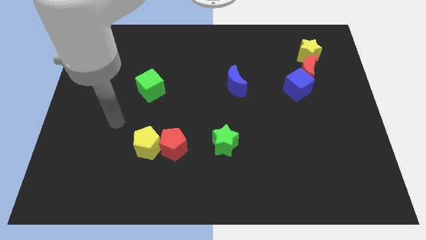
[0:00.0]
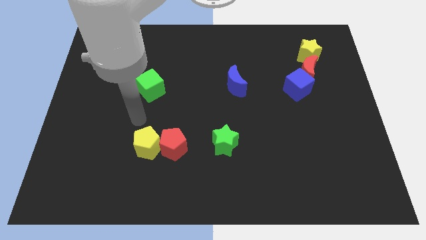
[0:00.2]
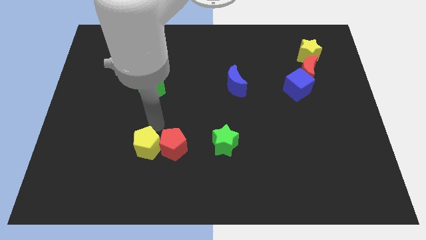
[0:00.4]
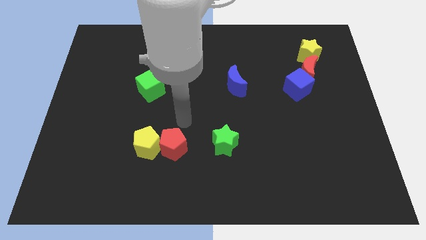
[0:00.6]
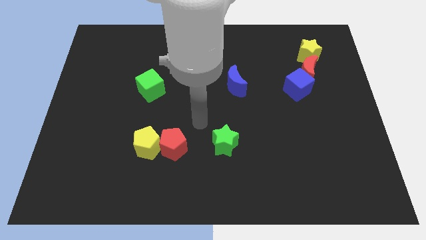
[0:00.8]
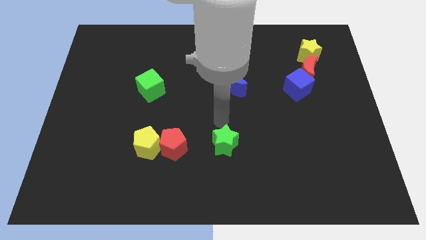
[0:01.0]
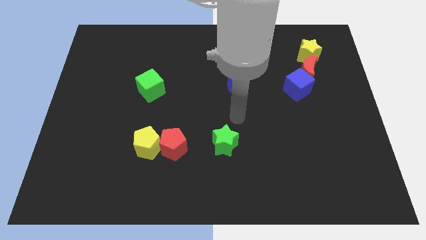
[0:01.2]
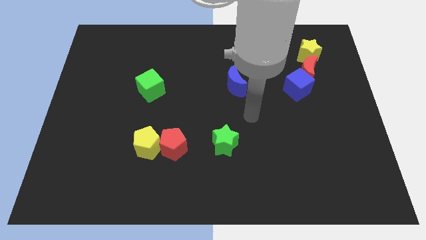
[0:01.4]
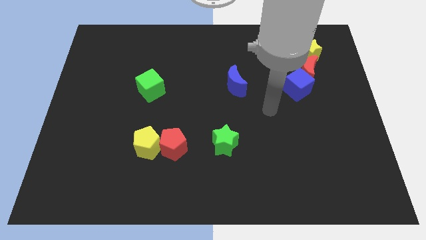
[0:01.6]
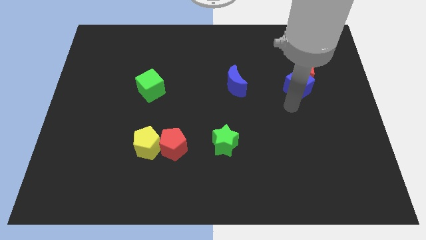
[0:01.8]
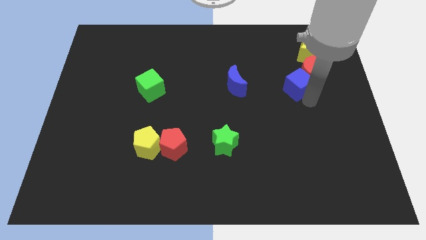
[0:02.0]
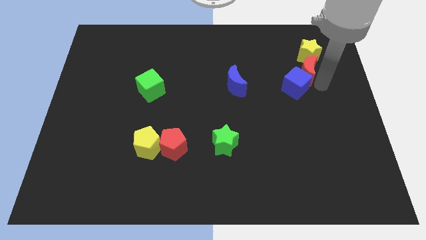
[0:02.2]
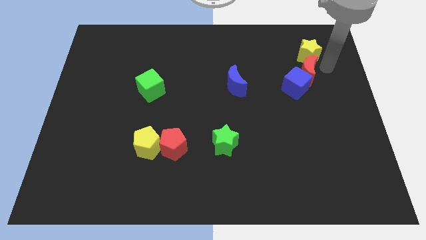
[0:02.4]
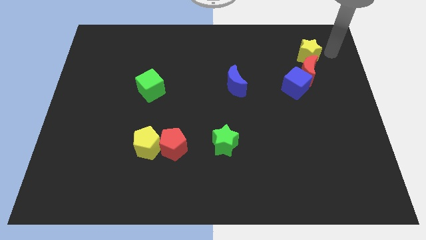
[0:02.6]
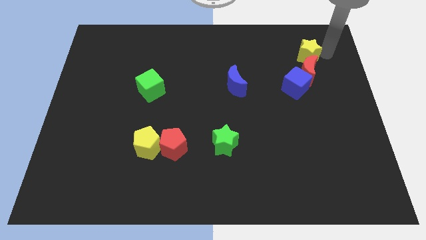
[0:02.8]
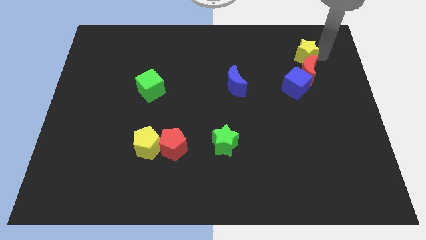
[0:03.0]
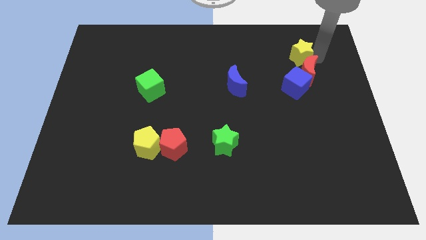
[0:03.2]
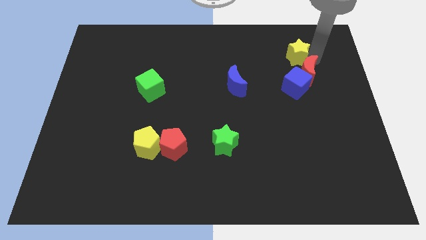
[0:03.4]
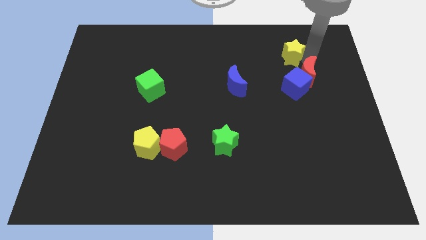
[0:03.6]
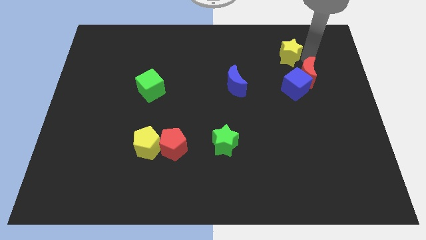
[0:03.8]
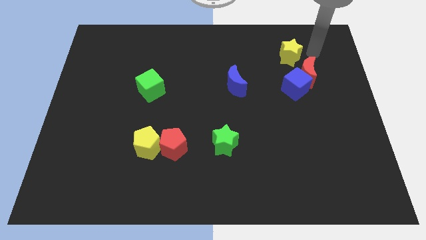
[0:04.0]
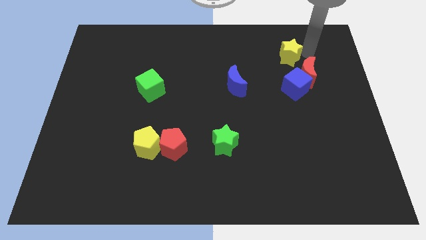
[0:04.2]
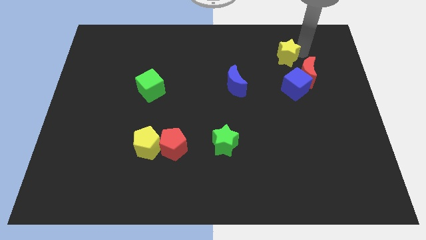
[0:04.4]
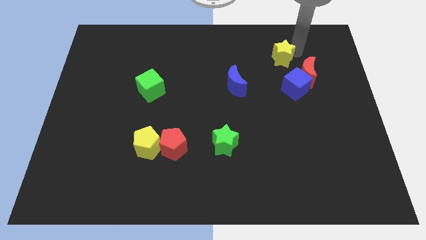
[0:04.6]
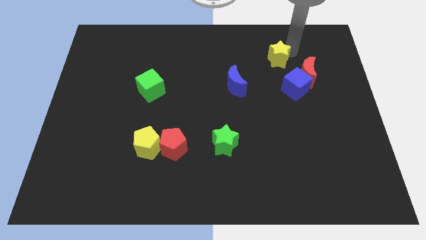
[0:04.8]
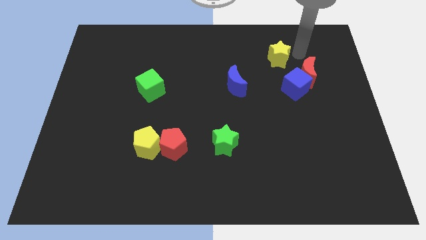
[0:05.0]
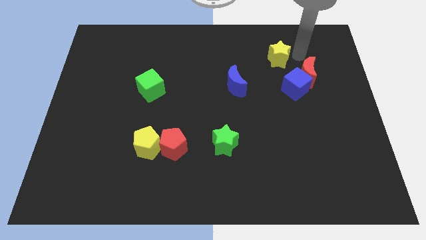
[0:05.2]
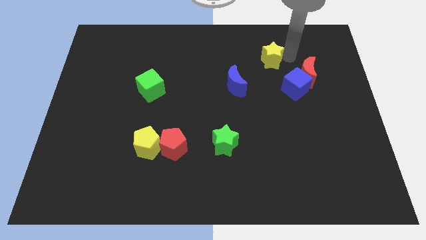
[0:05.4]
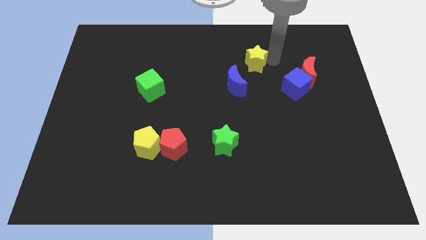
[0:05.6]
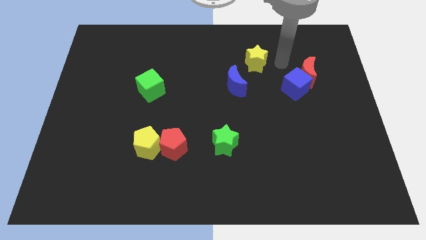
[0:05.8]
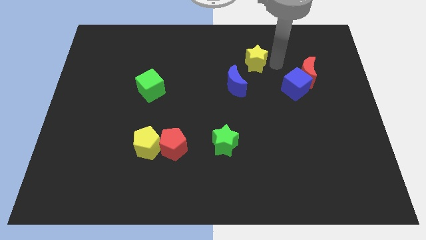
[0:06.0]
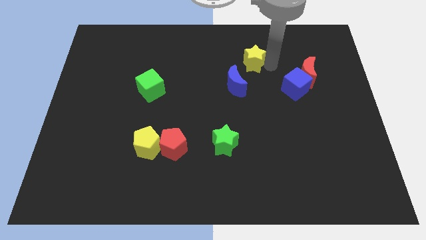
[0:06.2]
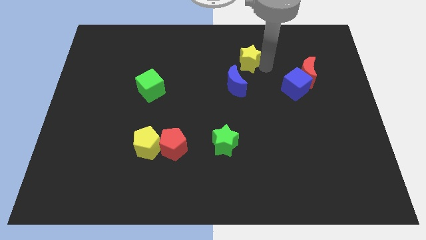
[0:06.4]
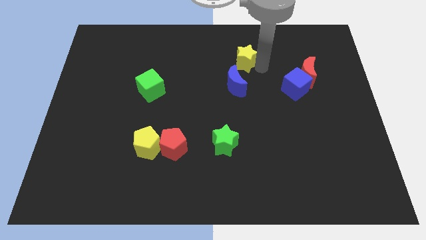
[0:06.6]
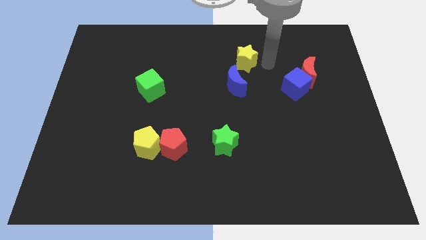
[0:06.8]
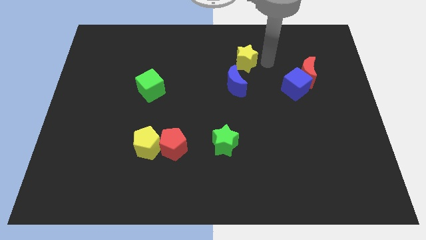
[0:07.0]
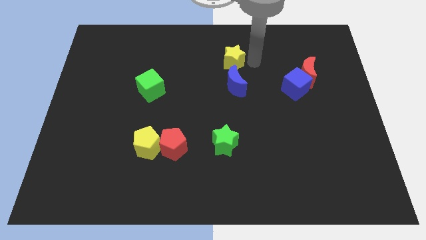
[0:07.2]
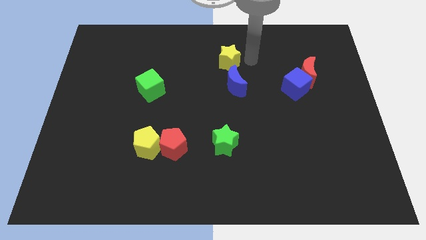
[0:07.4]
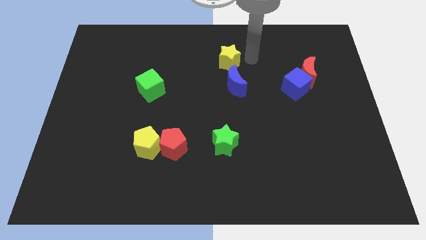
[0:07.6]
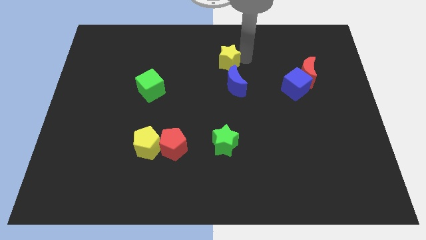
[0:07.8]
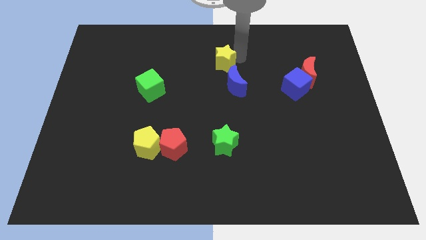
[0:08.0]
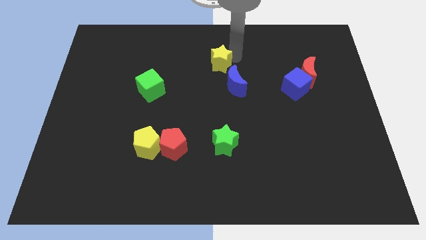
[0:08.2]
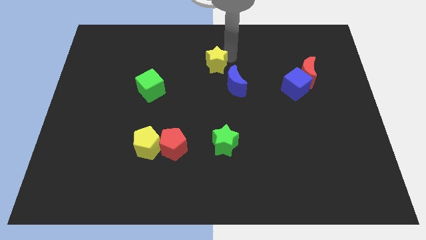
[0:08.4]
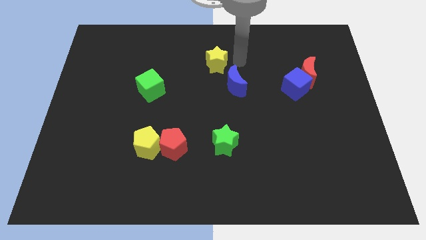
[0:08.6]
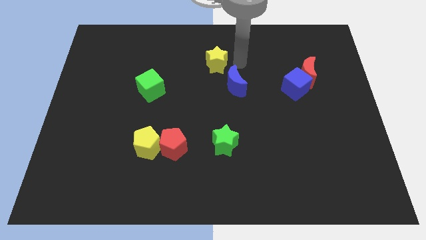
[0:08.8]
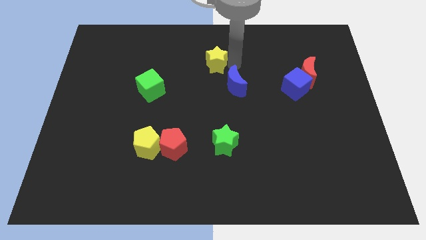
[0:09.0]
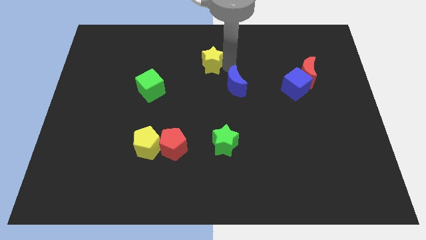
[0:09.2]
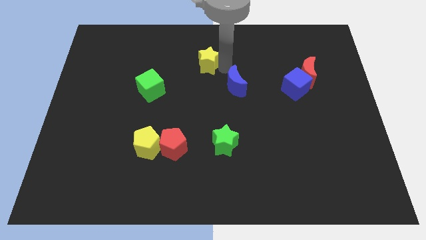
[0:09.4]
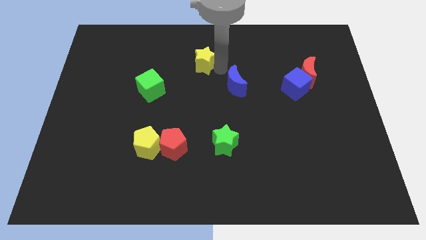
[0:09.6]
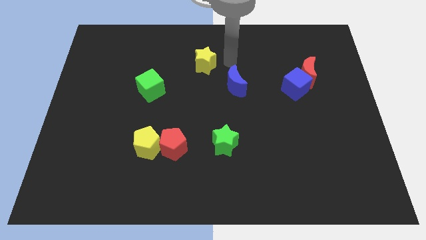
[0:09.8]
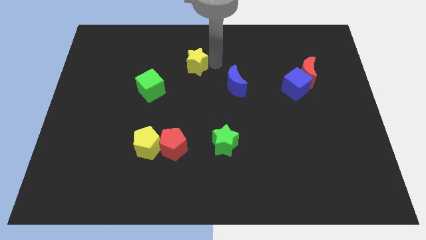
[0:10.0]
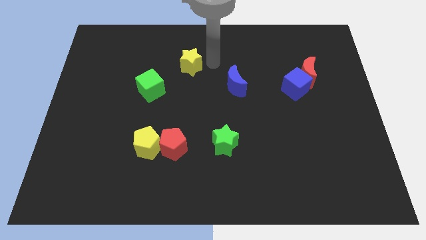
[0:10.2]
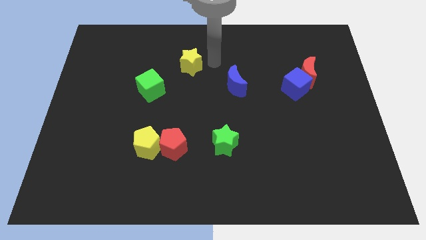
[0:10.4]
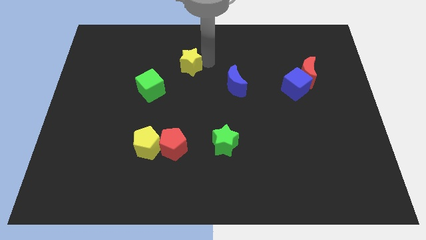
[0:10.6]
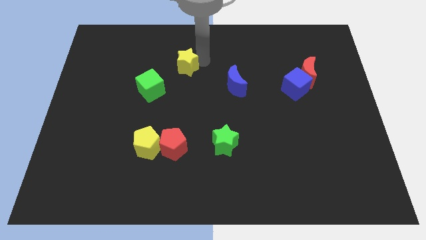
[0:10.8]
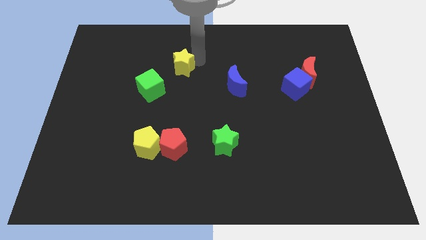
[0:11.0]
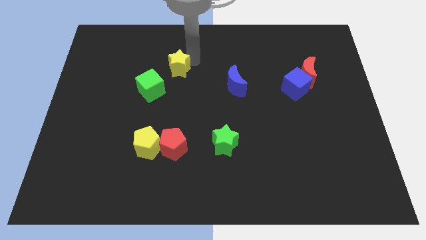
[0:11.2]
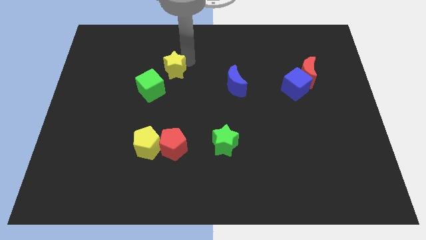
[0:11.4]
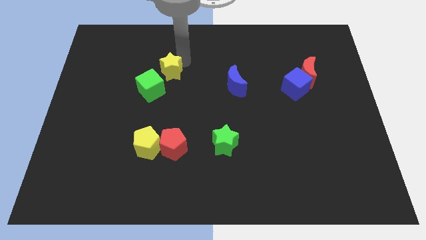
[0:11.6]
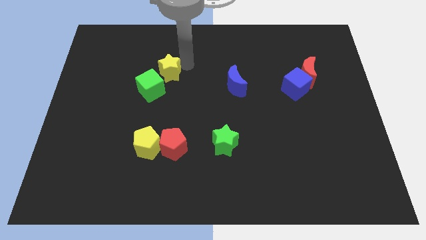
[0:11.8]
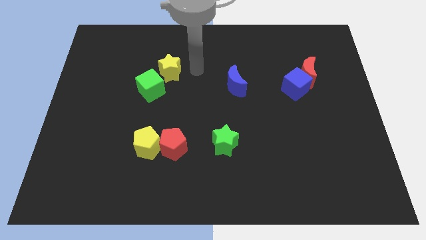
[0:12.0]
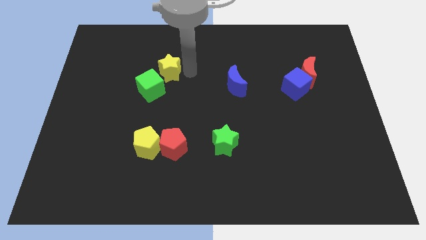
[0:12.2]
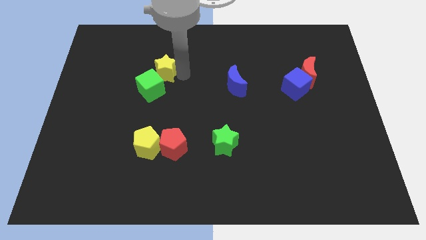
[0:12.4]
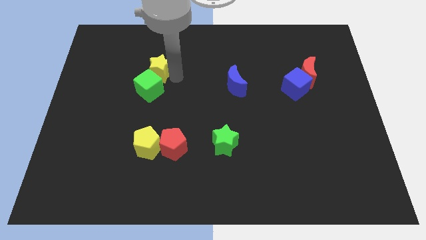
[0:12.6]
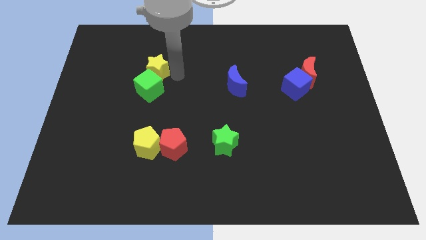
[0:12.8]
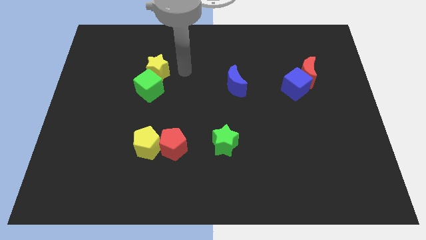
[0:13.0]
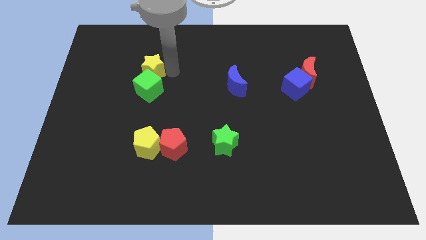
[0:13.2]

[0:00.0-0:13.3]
move the yellow star to the top left side of the green cube

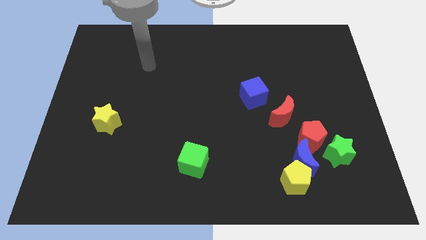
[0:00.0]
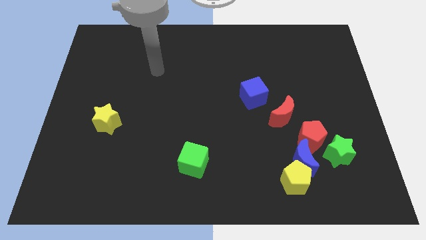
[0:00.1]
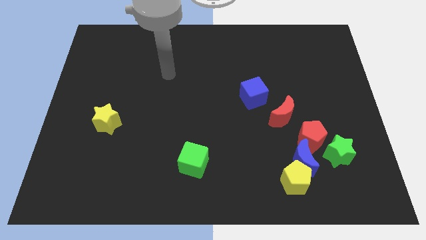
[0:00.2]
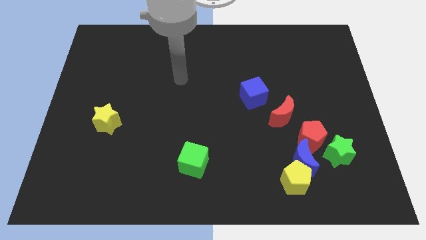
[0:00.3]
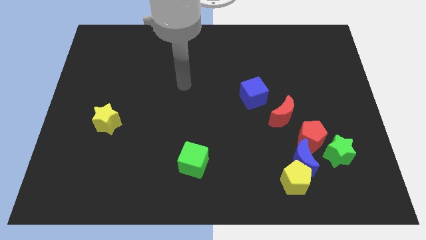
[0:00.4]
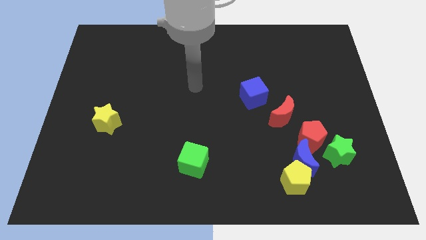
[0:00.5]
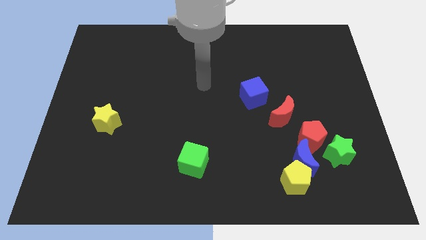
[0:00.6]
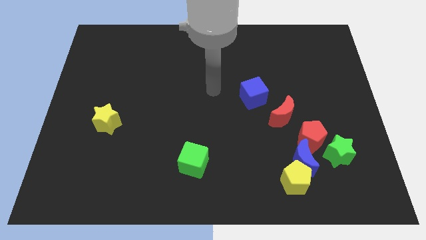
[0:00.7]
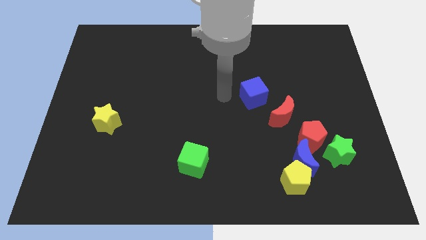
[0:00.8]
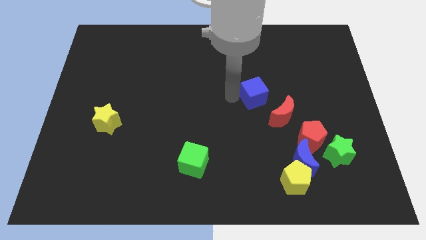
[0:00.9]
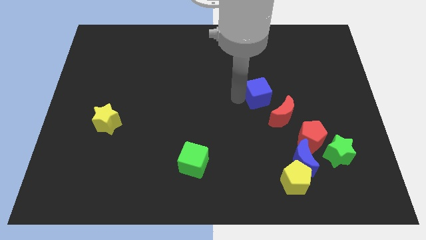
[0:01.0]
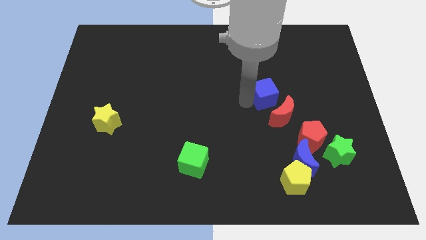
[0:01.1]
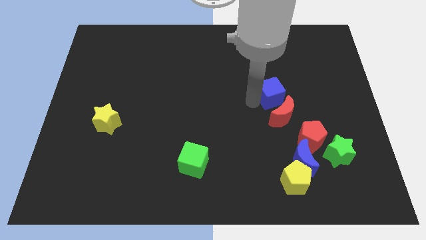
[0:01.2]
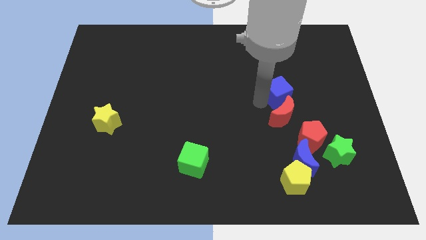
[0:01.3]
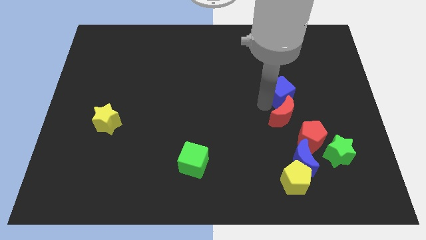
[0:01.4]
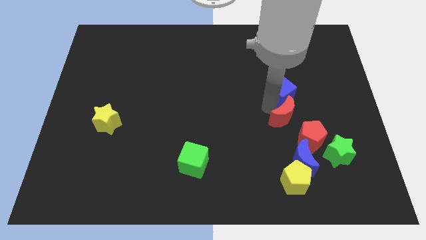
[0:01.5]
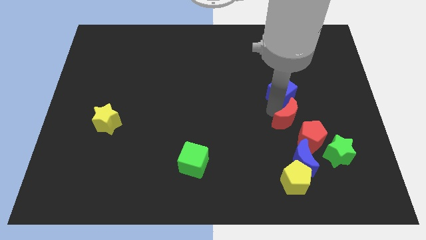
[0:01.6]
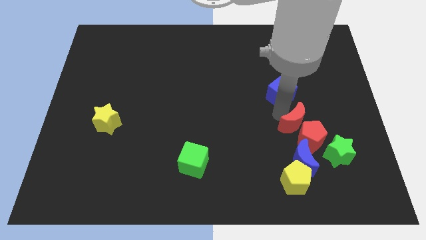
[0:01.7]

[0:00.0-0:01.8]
move the red moon diagonally up and to the left of the green star
